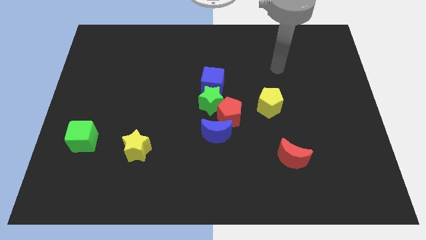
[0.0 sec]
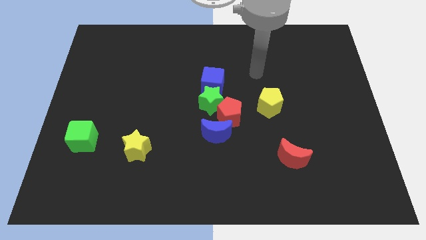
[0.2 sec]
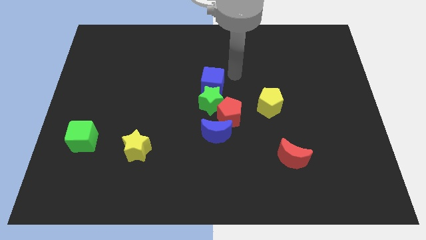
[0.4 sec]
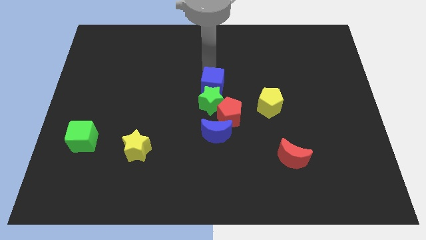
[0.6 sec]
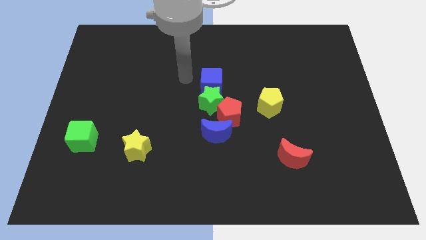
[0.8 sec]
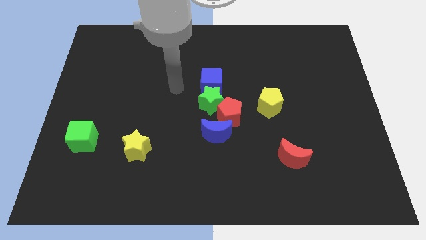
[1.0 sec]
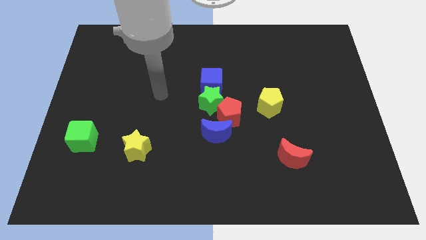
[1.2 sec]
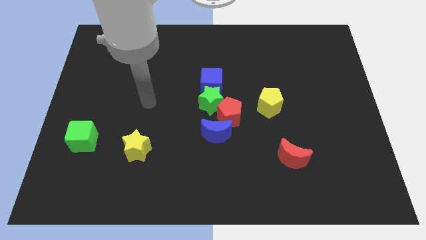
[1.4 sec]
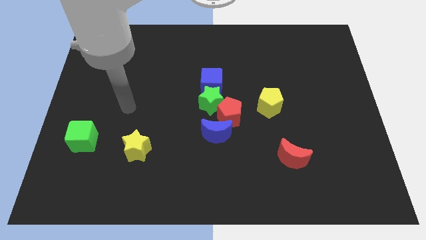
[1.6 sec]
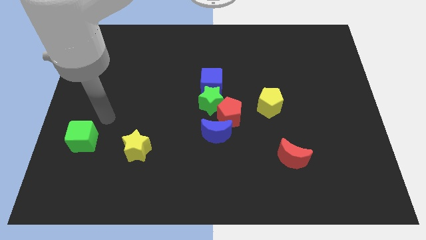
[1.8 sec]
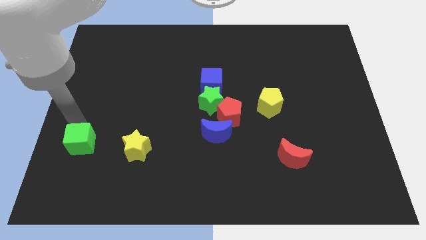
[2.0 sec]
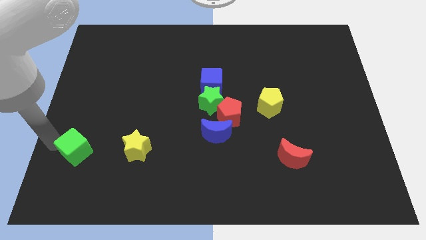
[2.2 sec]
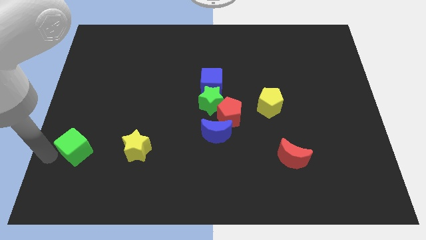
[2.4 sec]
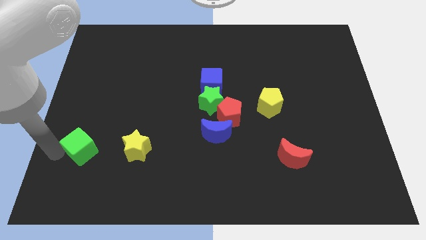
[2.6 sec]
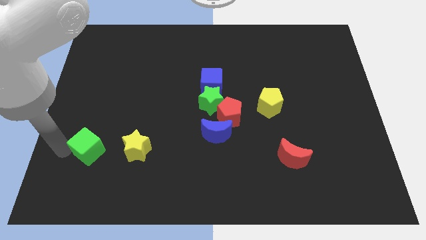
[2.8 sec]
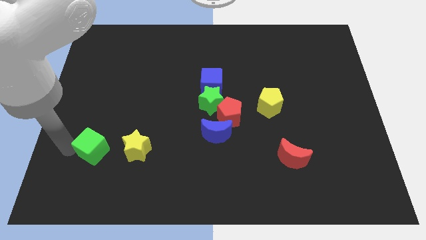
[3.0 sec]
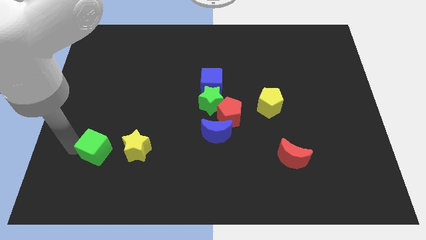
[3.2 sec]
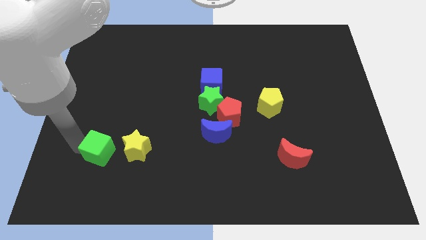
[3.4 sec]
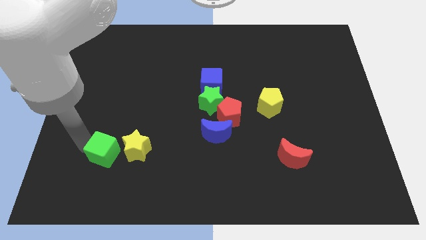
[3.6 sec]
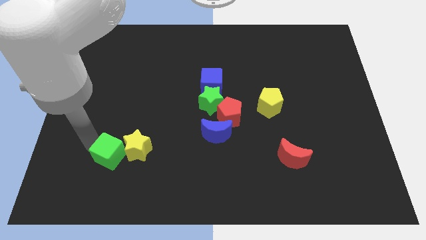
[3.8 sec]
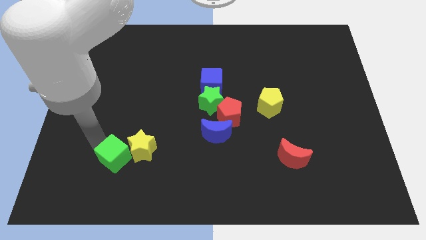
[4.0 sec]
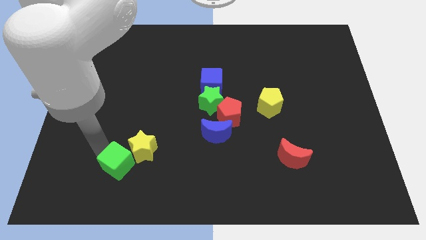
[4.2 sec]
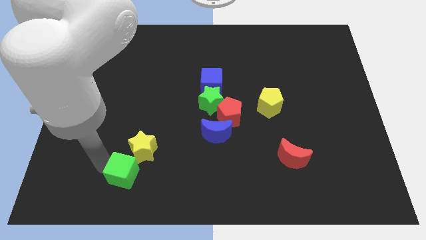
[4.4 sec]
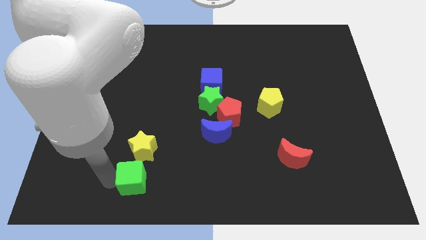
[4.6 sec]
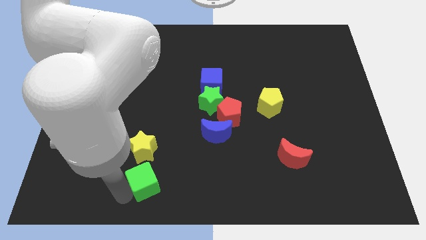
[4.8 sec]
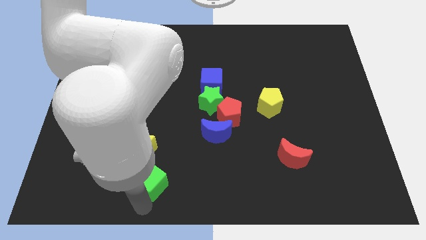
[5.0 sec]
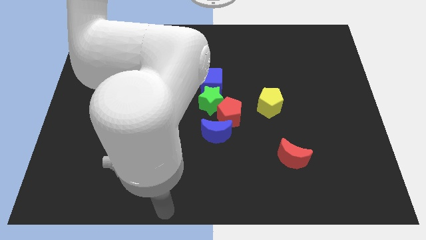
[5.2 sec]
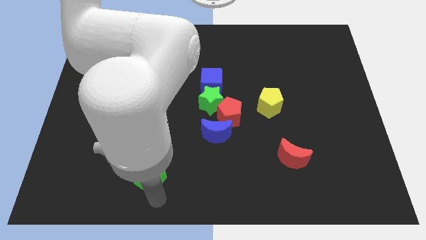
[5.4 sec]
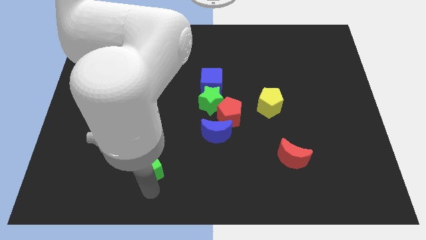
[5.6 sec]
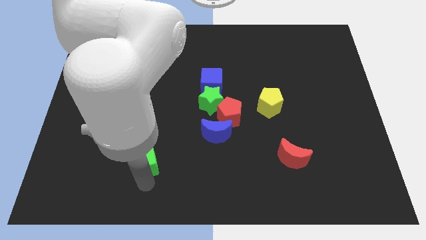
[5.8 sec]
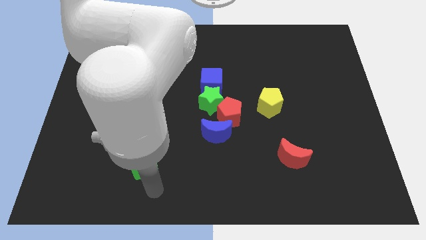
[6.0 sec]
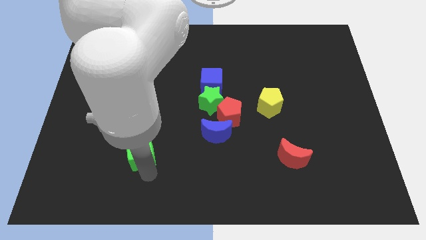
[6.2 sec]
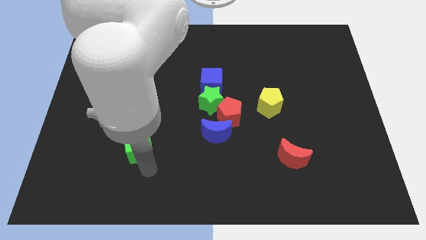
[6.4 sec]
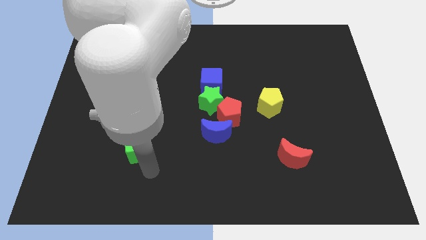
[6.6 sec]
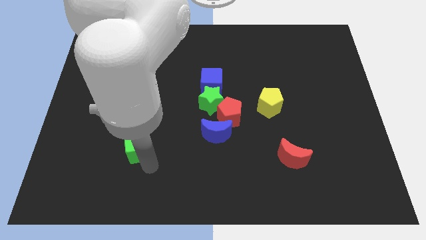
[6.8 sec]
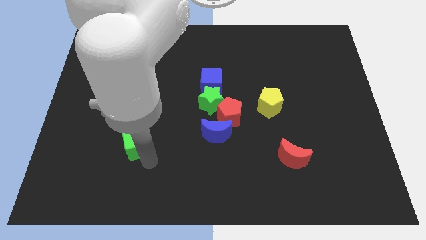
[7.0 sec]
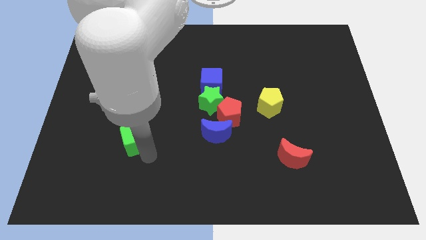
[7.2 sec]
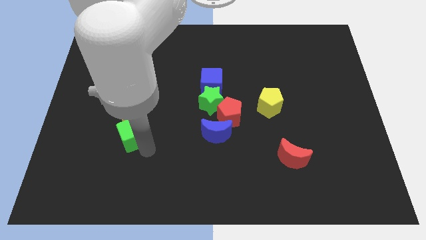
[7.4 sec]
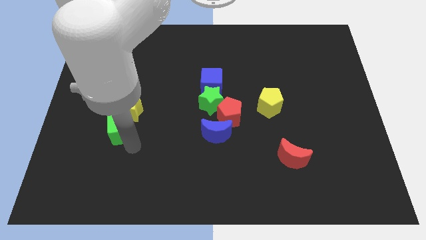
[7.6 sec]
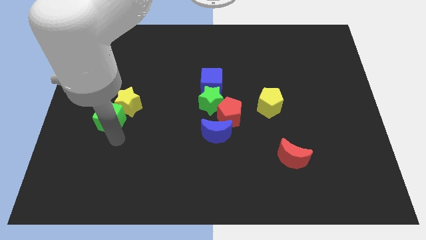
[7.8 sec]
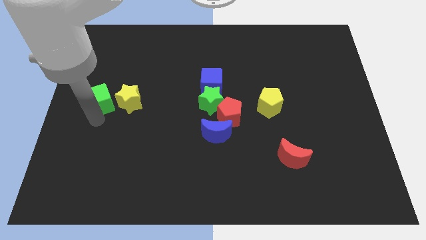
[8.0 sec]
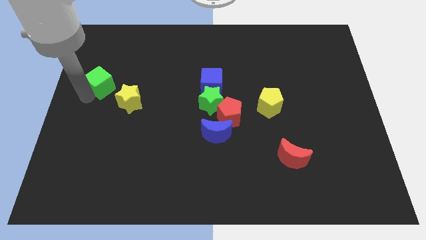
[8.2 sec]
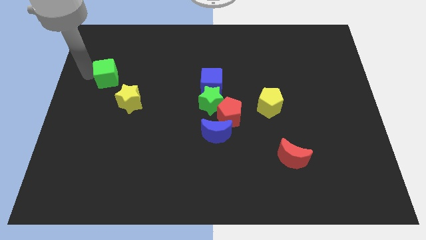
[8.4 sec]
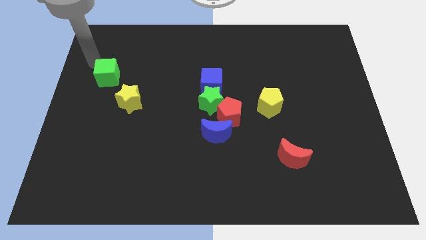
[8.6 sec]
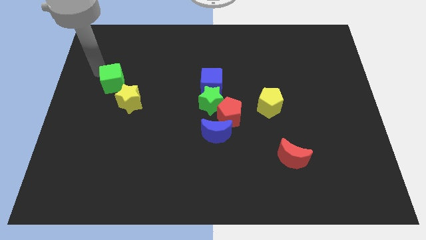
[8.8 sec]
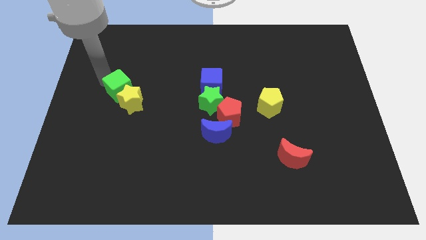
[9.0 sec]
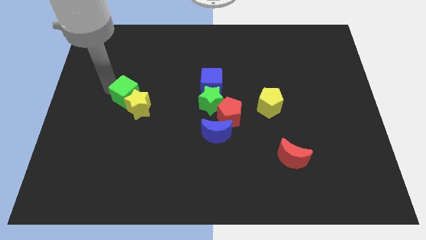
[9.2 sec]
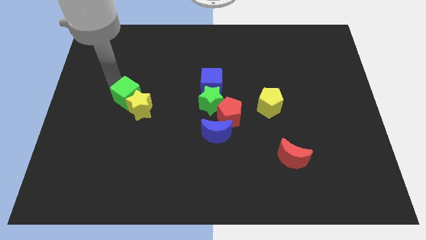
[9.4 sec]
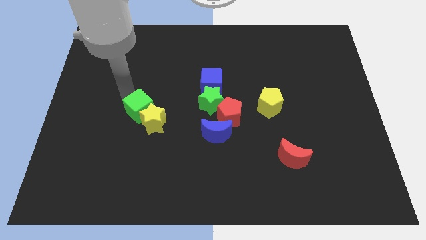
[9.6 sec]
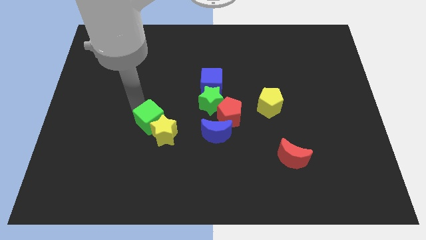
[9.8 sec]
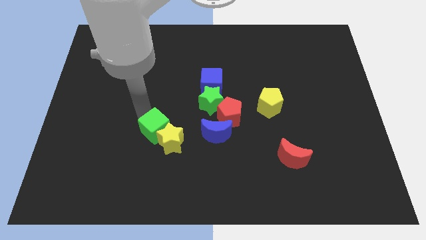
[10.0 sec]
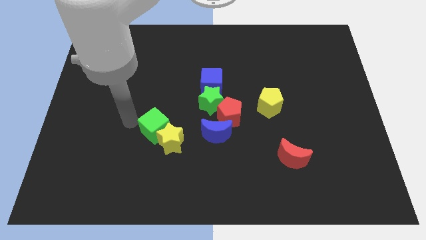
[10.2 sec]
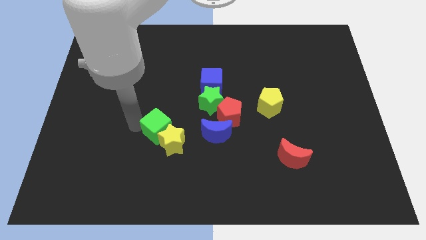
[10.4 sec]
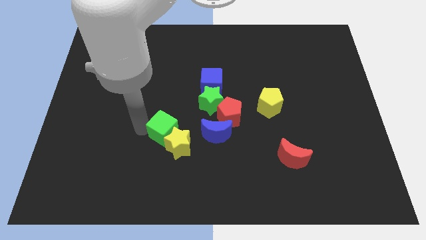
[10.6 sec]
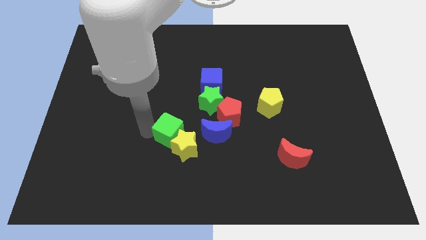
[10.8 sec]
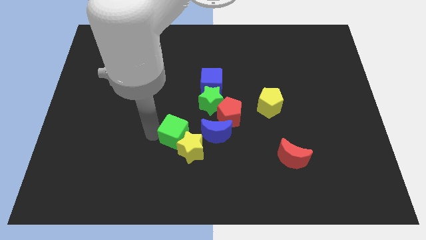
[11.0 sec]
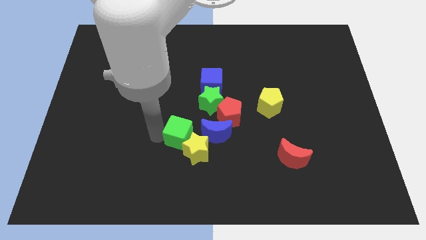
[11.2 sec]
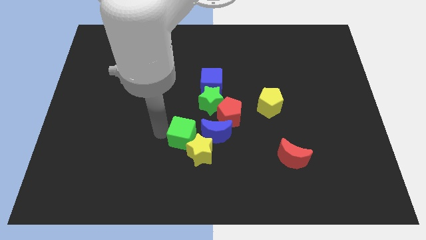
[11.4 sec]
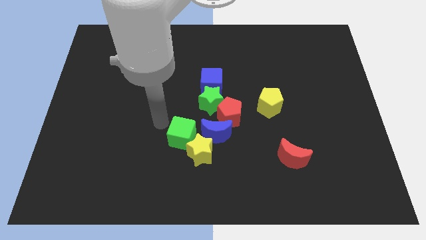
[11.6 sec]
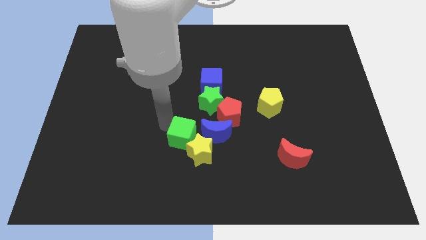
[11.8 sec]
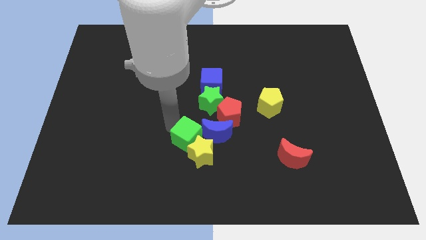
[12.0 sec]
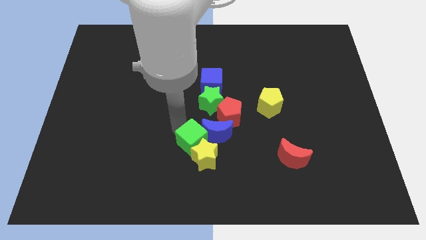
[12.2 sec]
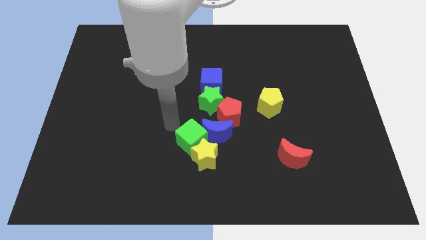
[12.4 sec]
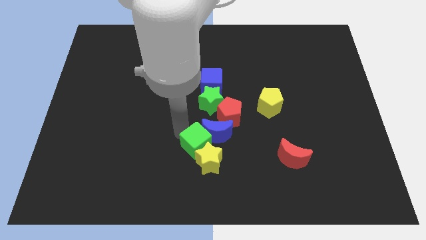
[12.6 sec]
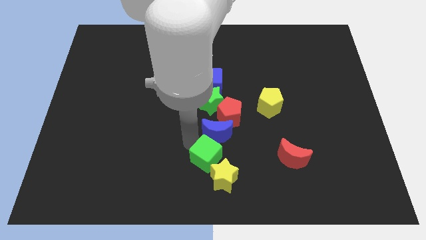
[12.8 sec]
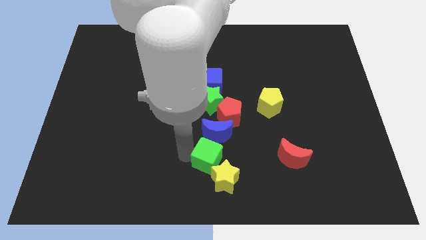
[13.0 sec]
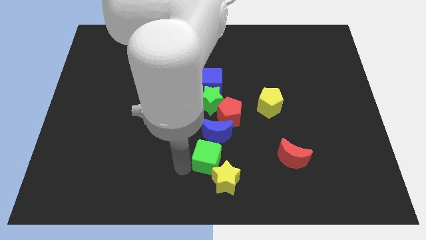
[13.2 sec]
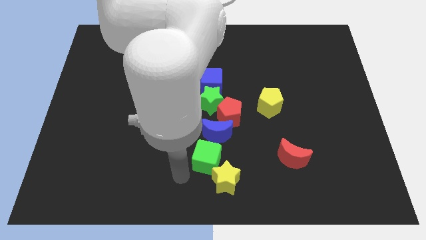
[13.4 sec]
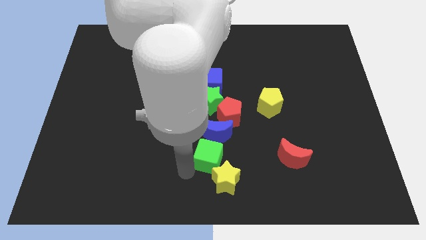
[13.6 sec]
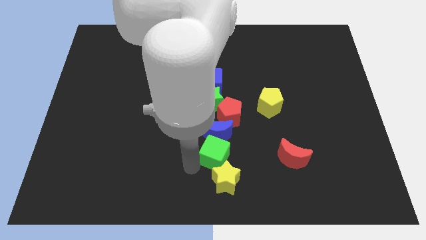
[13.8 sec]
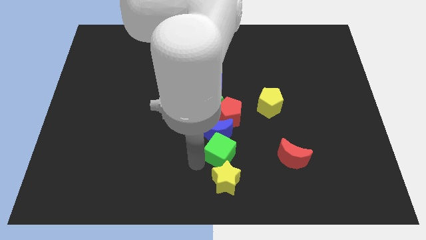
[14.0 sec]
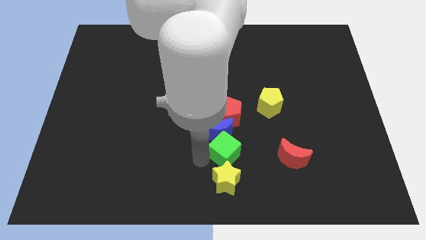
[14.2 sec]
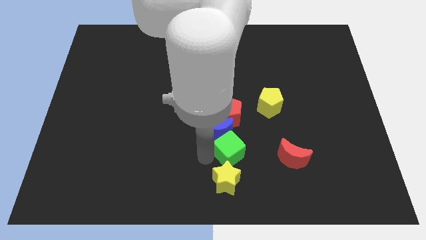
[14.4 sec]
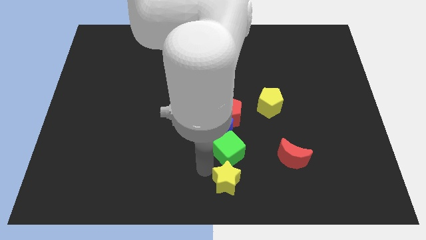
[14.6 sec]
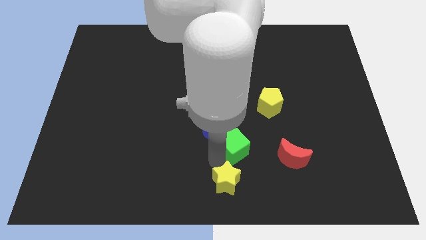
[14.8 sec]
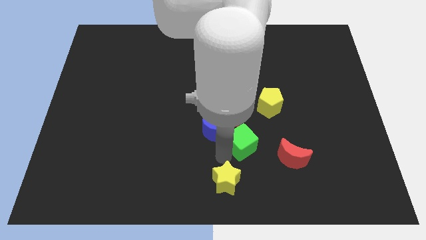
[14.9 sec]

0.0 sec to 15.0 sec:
put the green cube to the bottom right of the red pentagon
